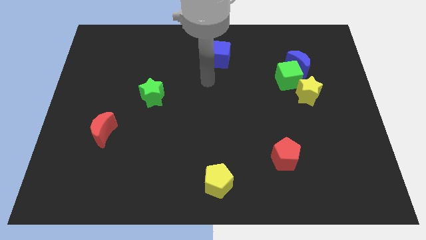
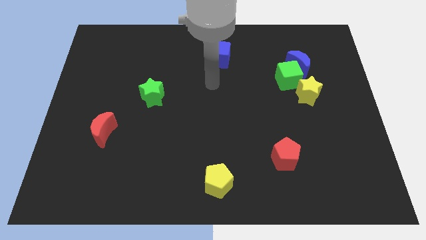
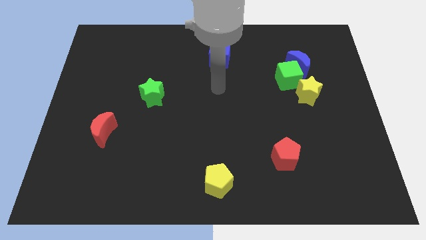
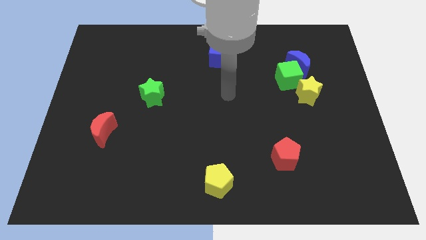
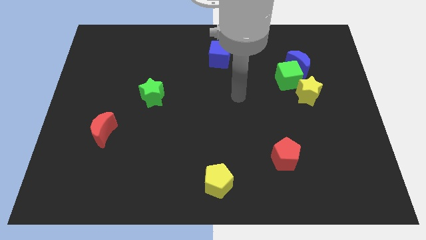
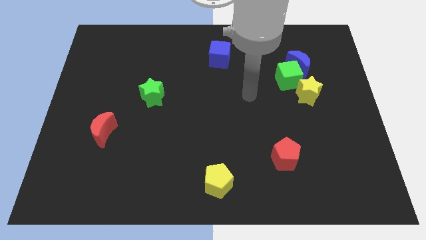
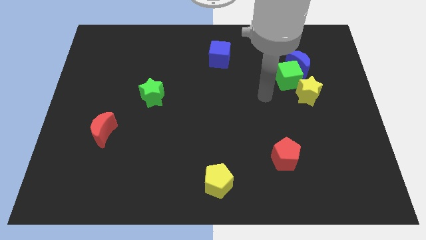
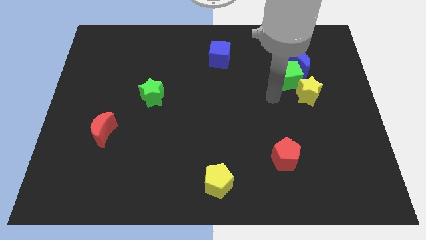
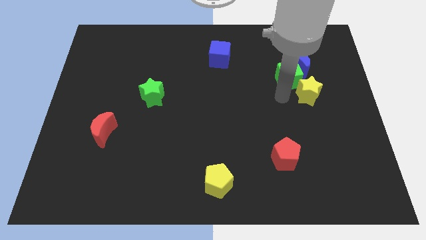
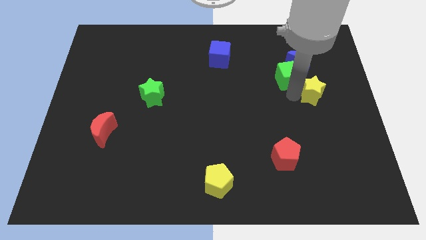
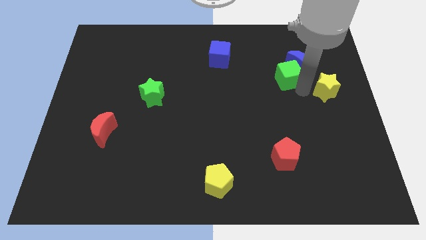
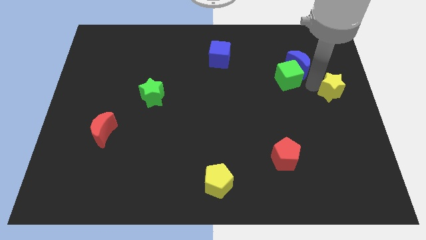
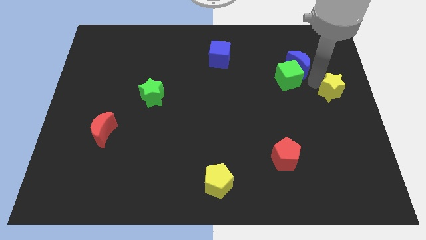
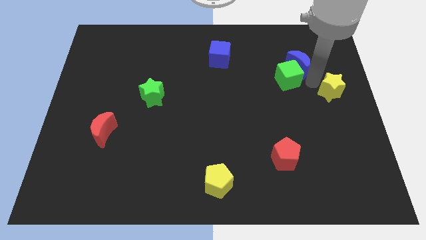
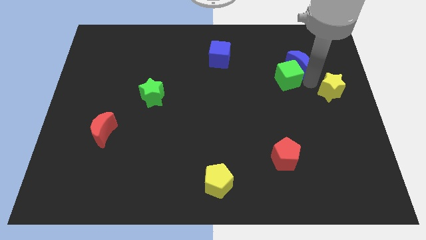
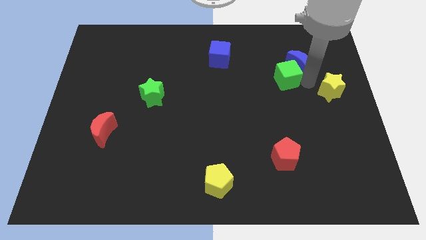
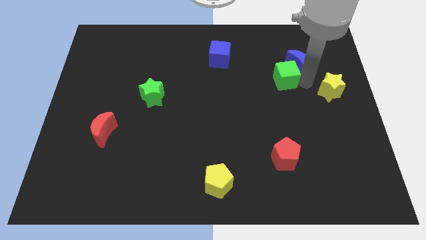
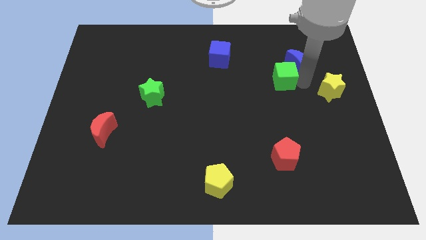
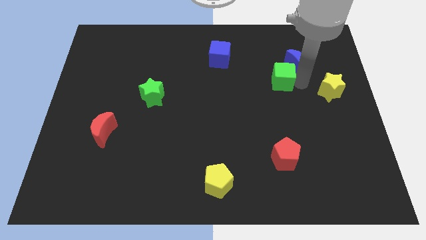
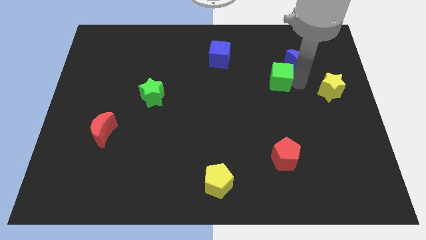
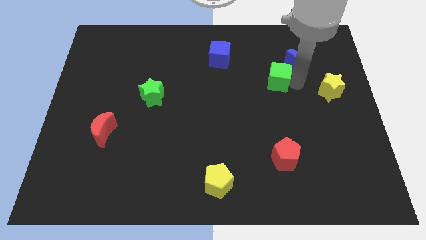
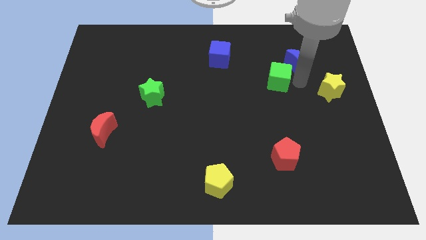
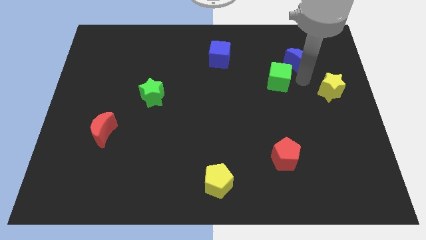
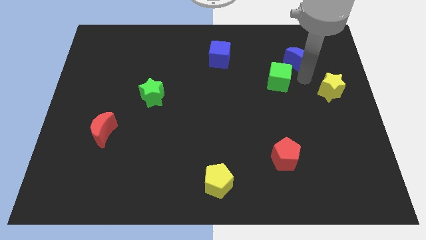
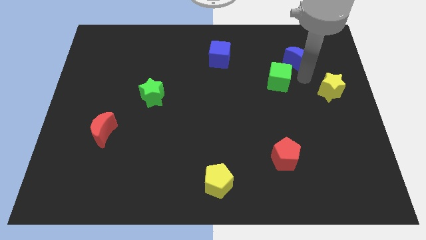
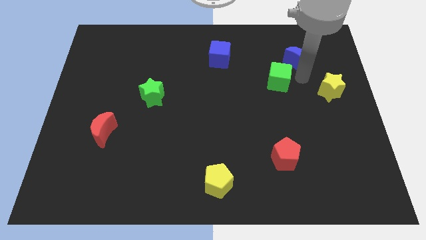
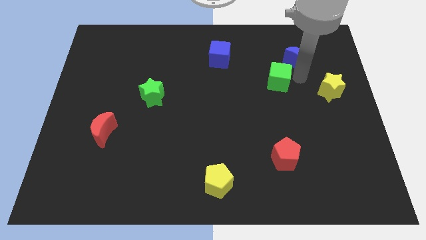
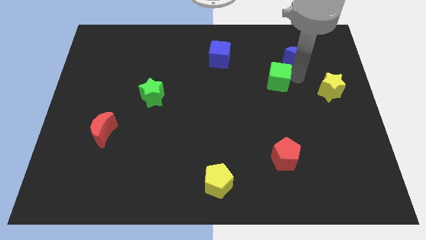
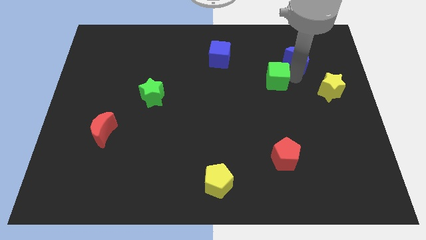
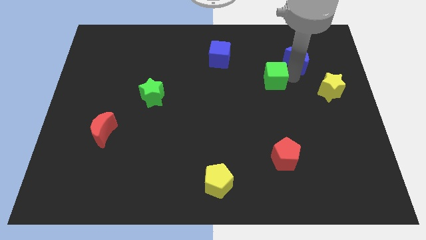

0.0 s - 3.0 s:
pull the green cube apart from the blue moon and yellow star

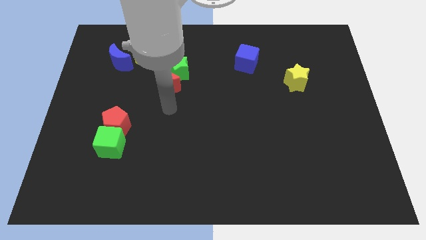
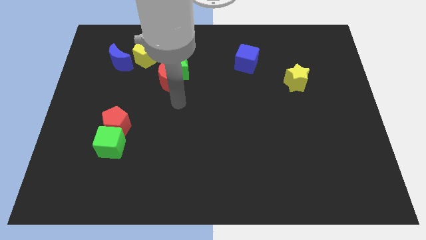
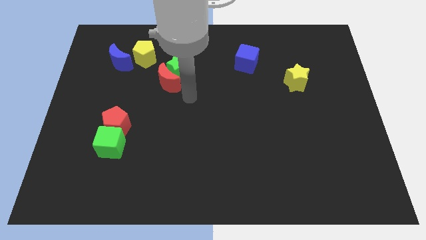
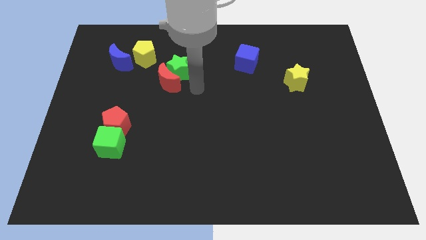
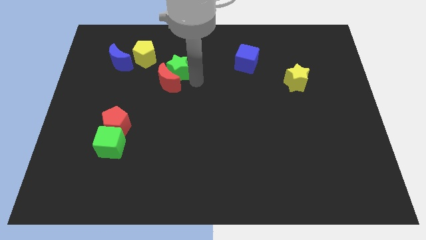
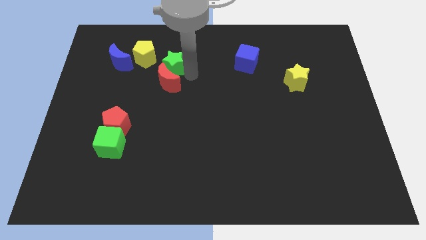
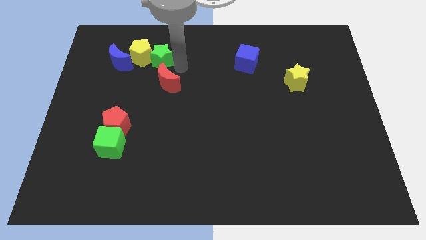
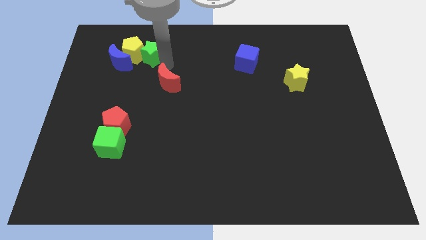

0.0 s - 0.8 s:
pull the red moon apart from the green star

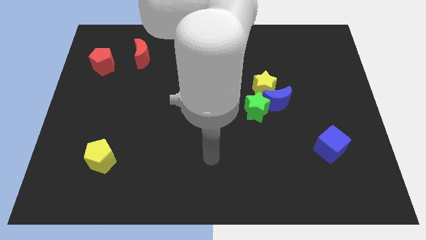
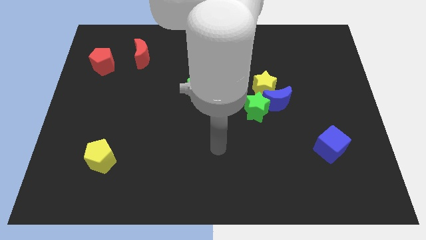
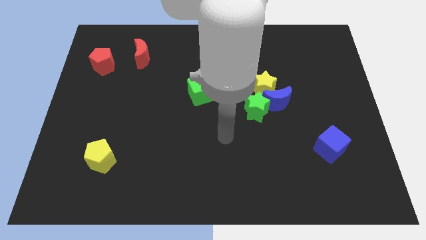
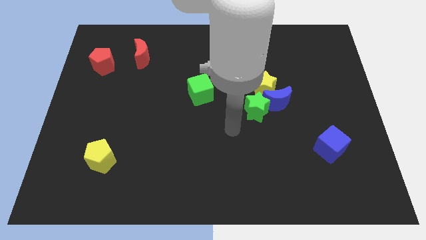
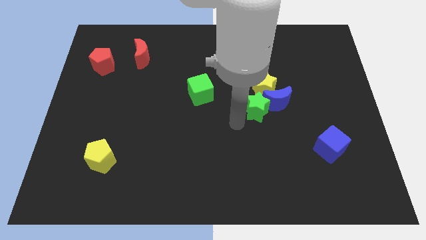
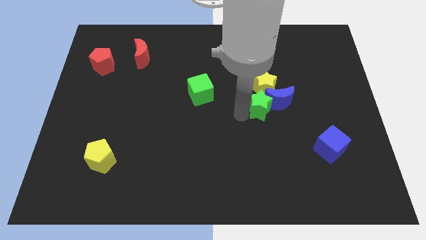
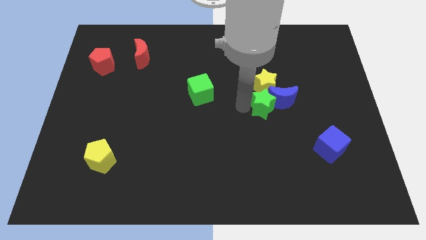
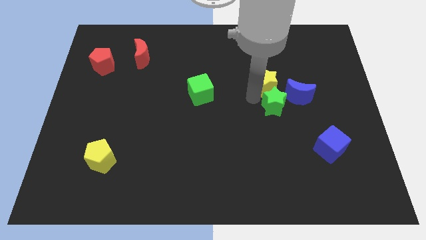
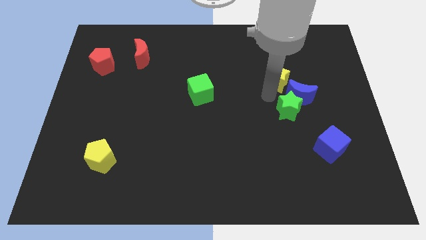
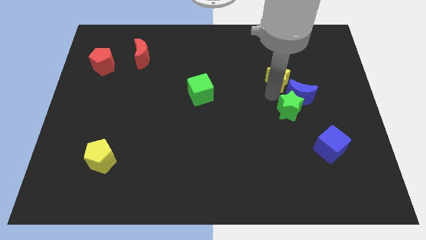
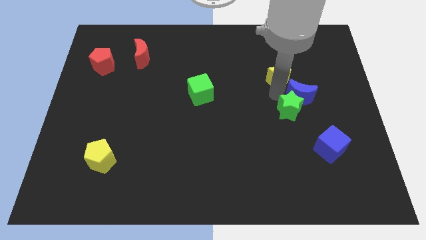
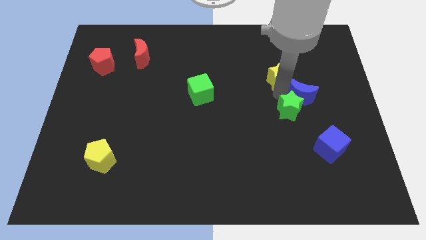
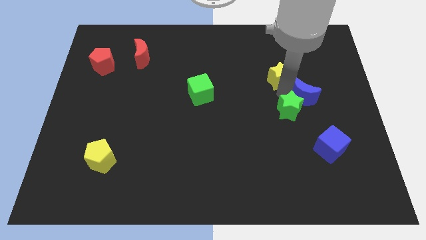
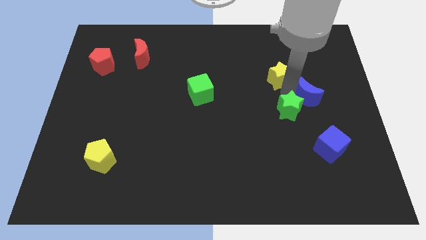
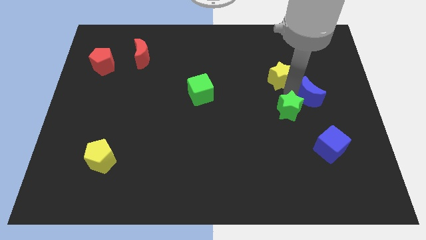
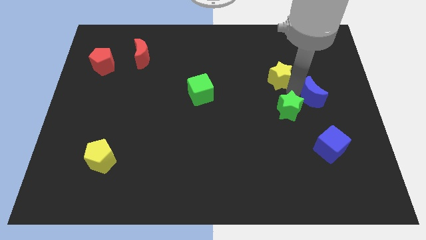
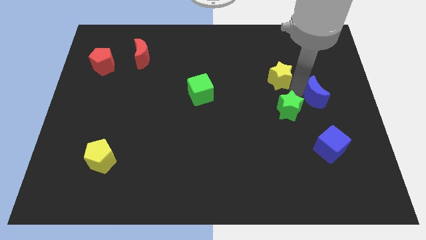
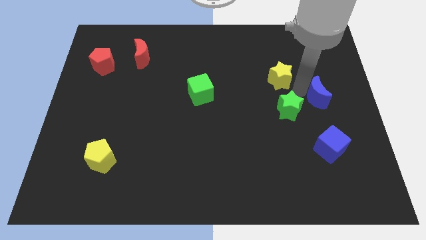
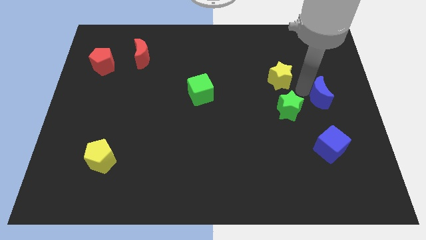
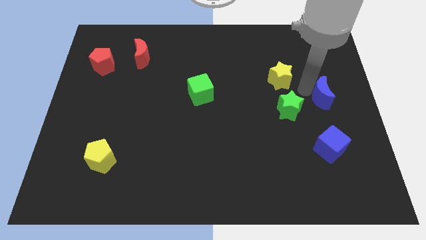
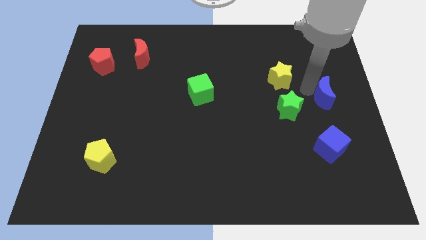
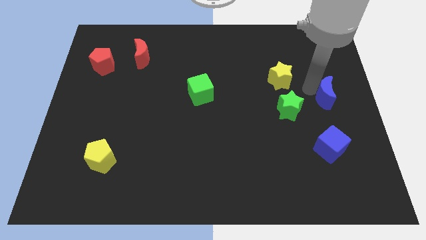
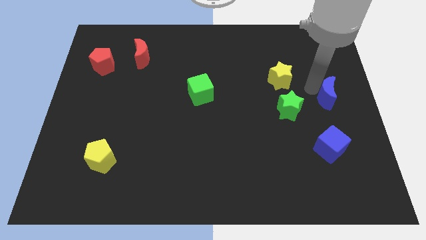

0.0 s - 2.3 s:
separate the blue moon from the yellow star and green star

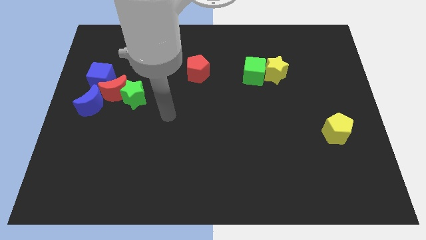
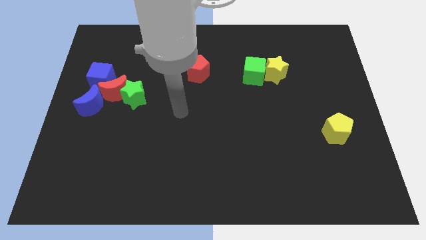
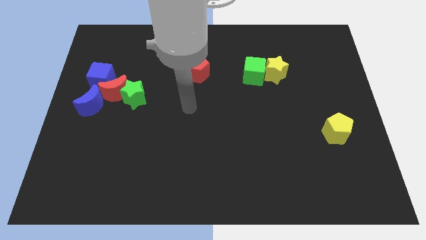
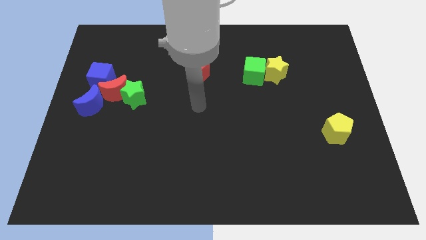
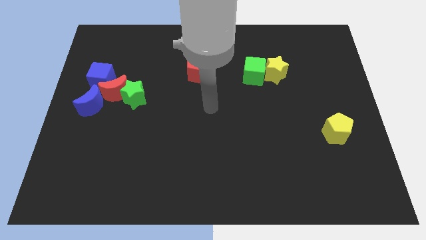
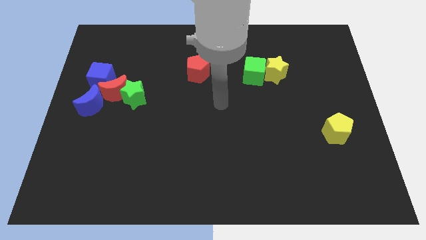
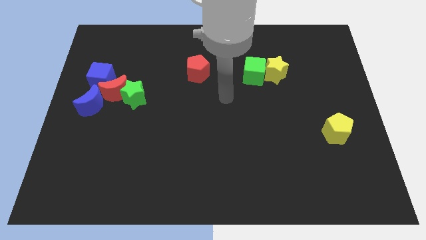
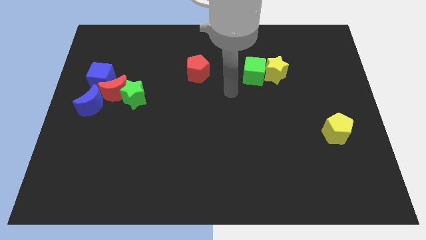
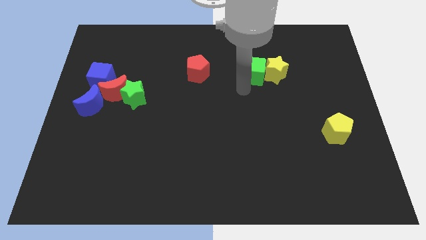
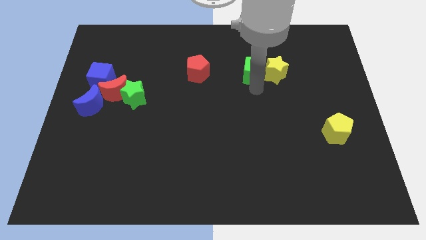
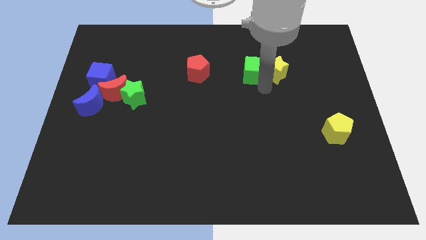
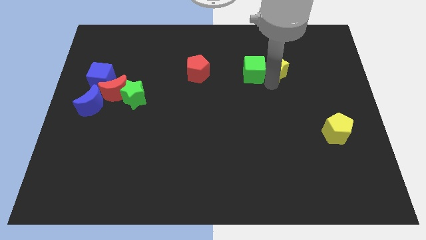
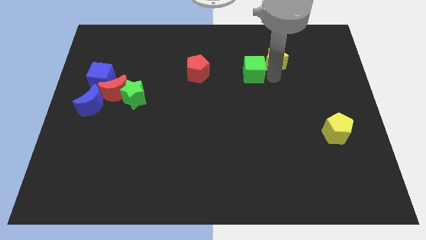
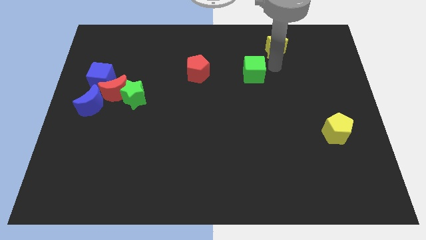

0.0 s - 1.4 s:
separate the green cube from the yellow star

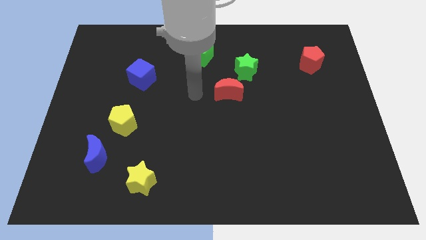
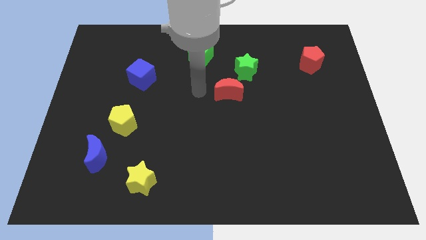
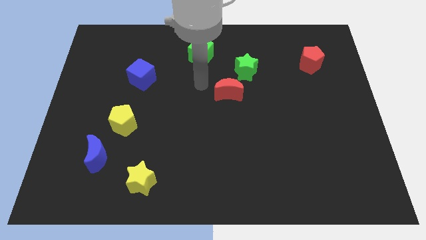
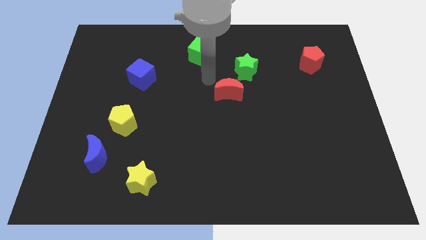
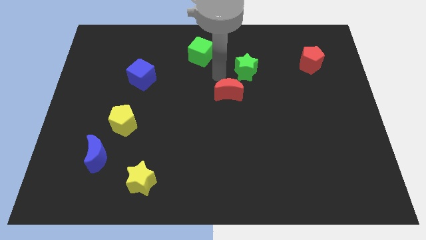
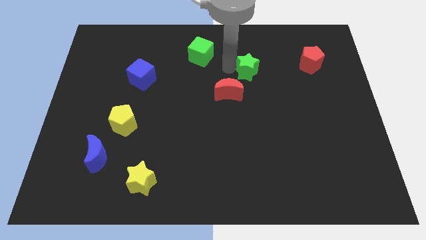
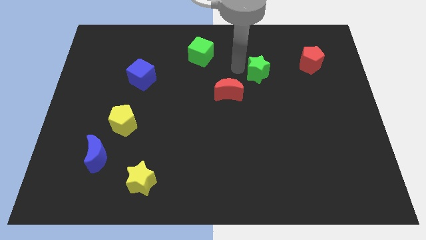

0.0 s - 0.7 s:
move the red moon away from the green star

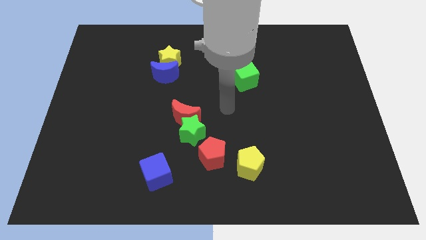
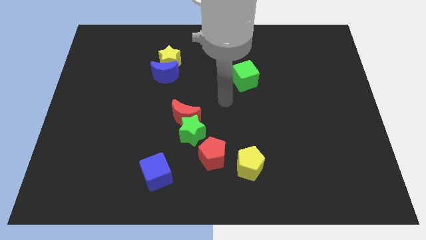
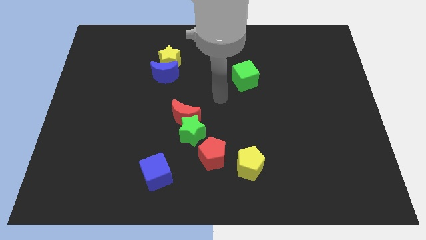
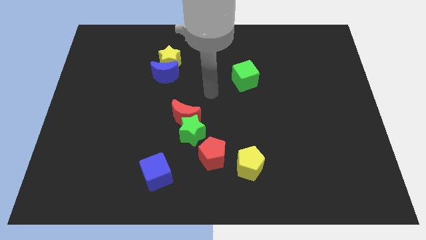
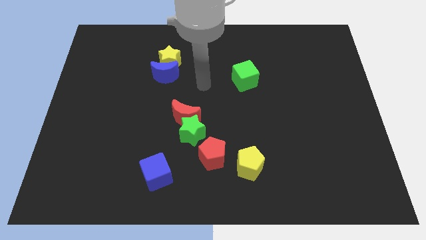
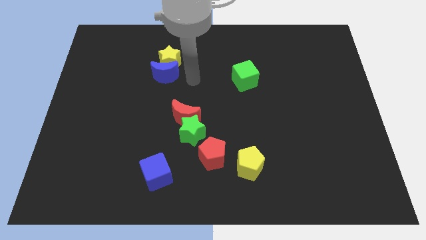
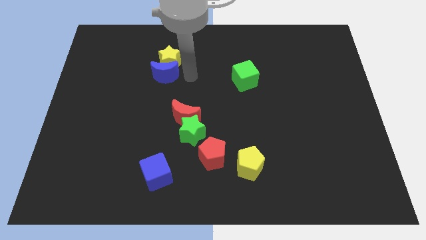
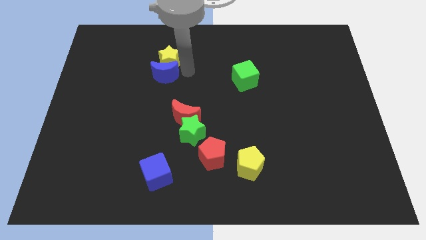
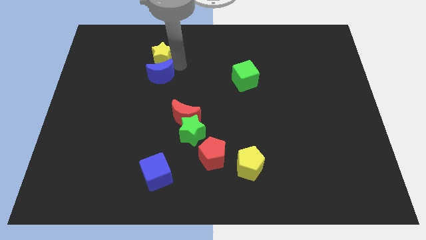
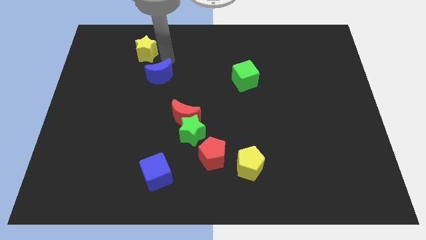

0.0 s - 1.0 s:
move the blue moon away from the yellow star
